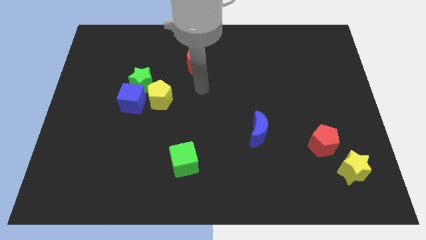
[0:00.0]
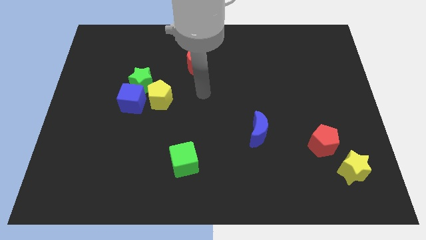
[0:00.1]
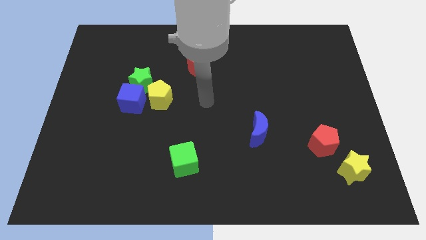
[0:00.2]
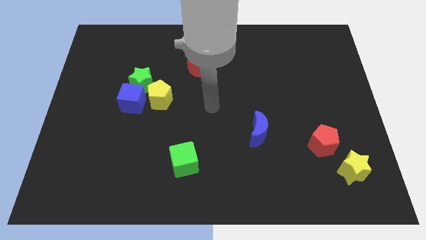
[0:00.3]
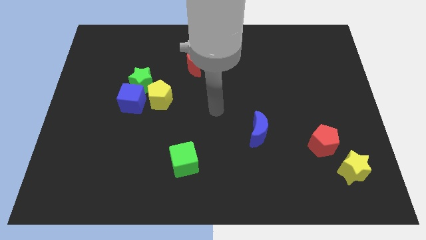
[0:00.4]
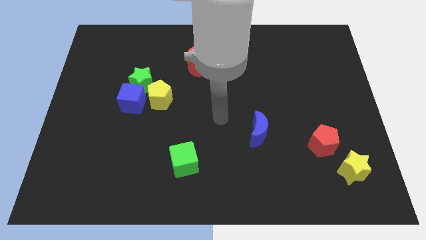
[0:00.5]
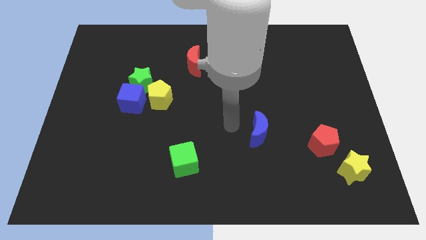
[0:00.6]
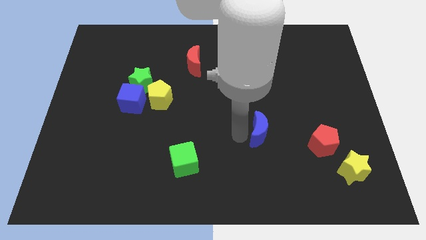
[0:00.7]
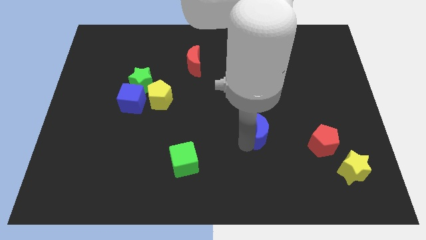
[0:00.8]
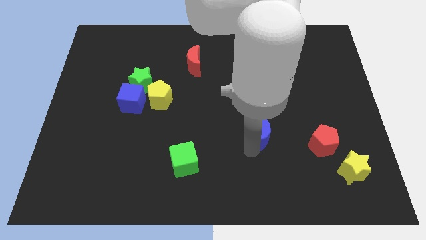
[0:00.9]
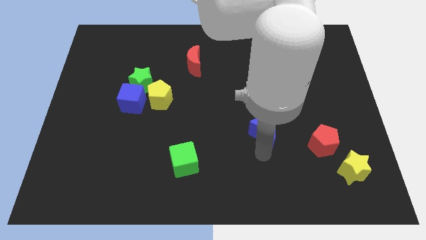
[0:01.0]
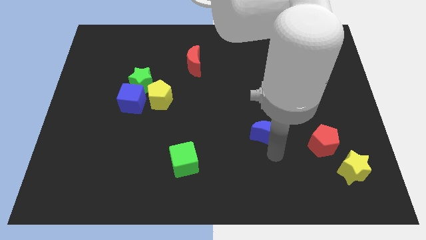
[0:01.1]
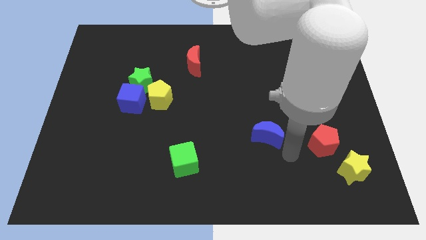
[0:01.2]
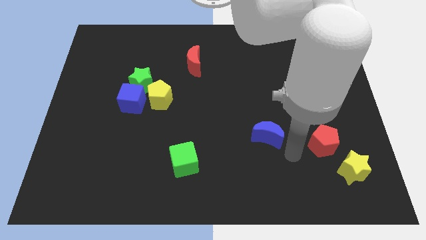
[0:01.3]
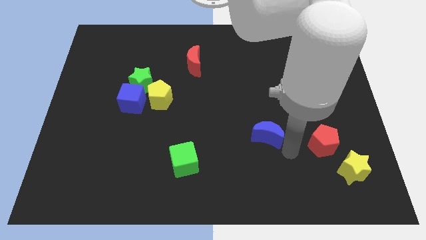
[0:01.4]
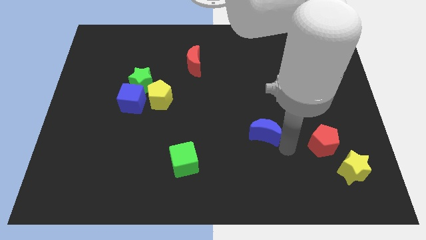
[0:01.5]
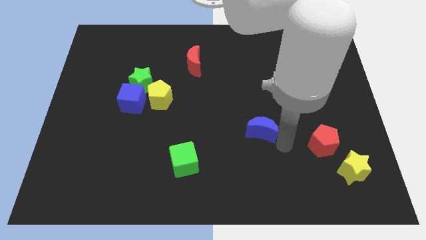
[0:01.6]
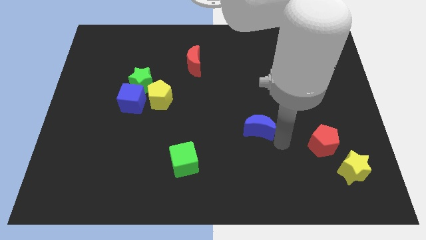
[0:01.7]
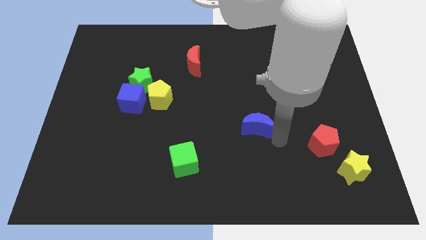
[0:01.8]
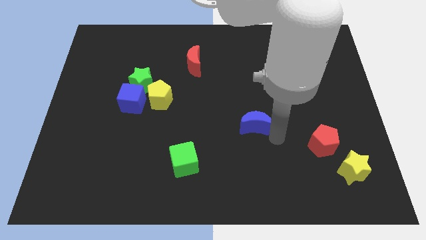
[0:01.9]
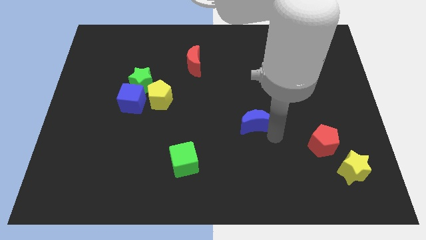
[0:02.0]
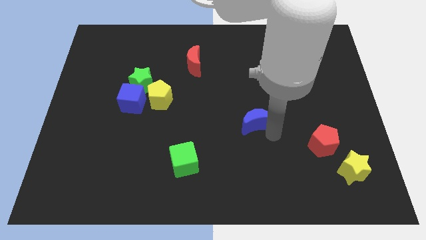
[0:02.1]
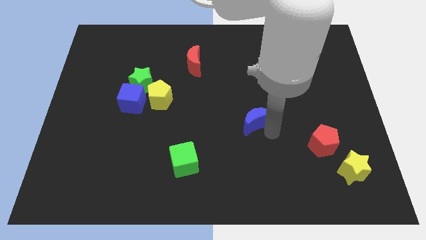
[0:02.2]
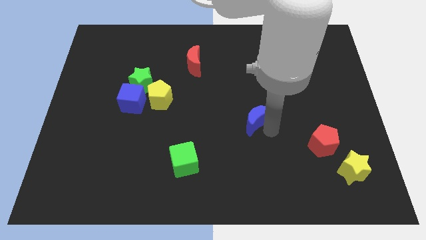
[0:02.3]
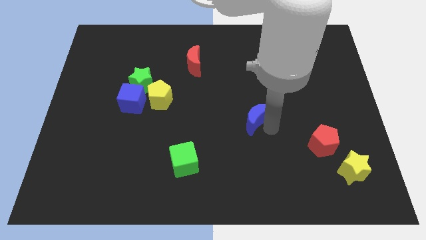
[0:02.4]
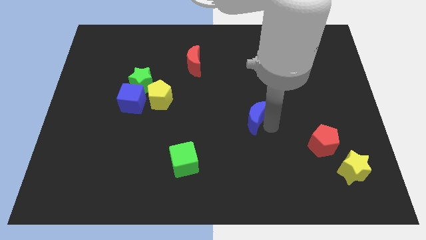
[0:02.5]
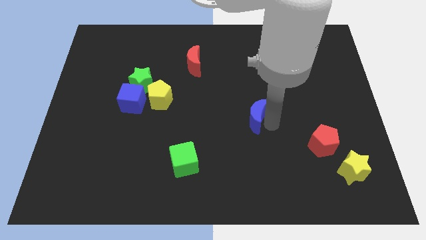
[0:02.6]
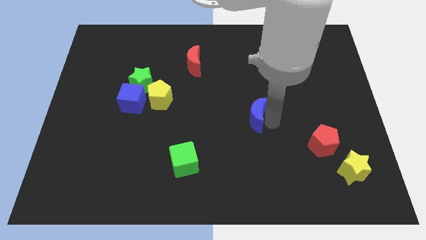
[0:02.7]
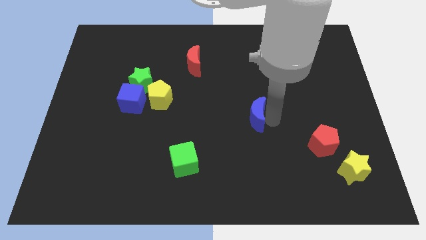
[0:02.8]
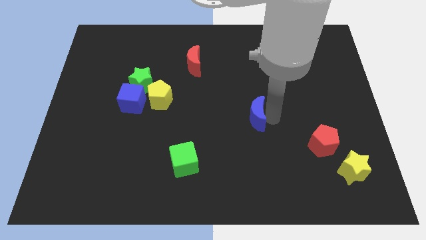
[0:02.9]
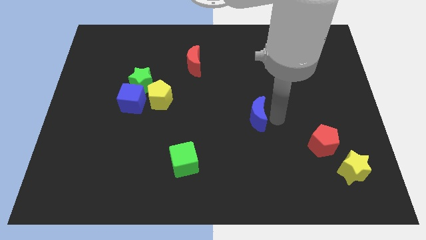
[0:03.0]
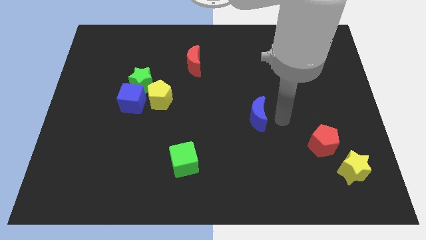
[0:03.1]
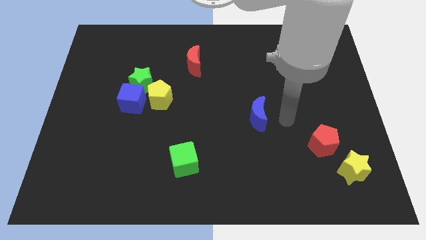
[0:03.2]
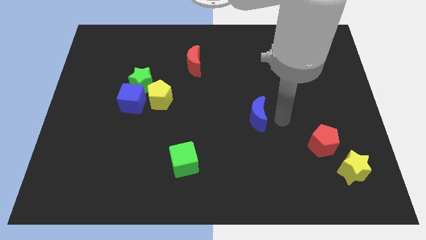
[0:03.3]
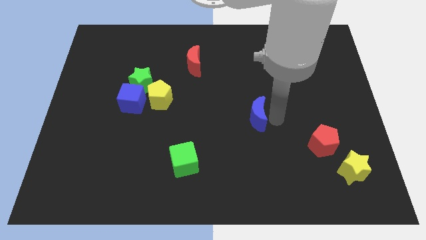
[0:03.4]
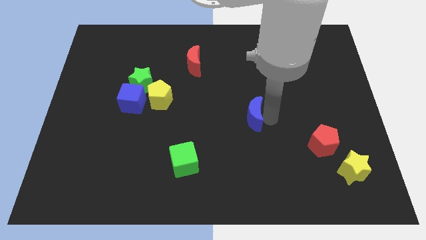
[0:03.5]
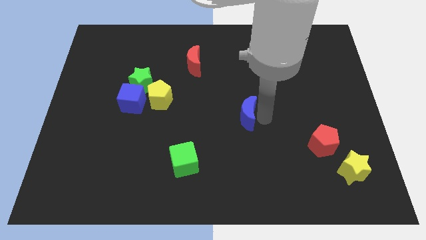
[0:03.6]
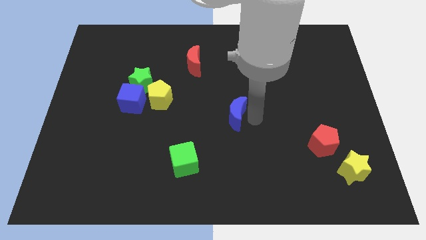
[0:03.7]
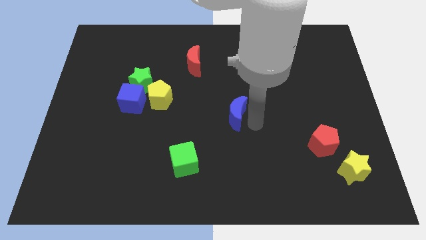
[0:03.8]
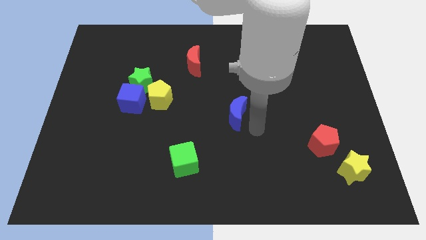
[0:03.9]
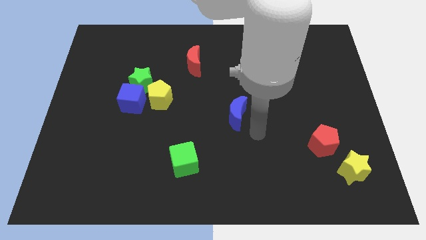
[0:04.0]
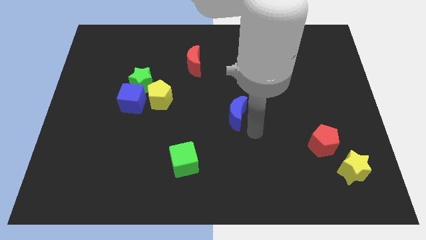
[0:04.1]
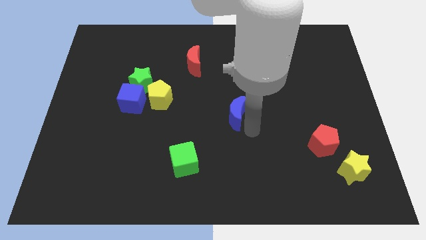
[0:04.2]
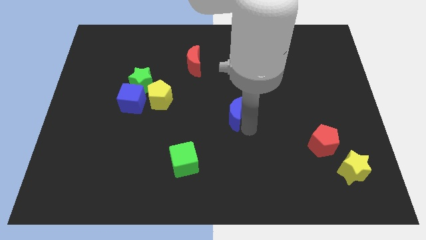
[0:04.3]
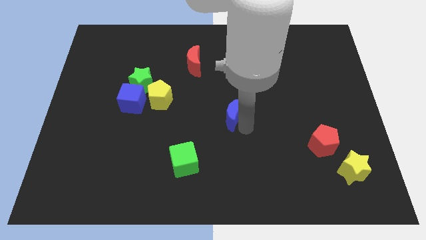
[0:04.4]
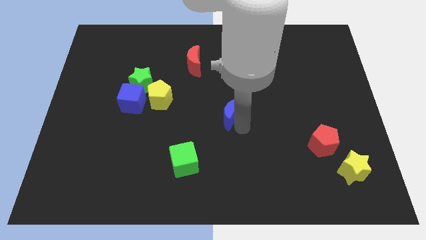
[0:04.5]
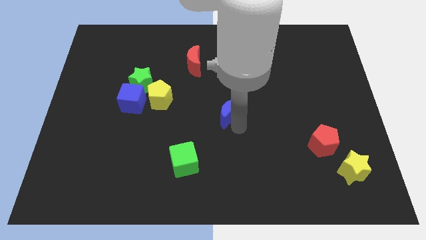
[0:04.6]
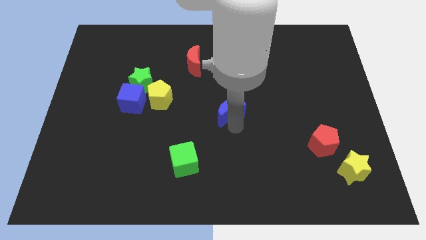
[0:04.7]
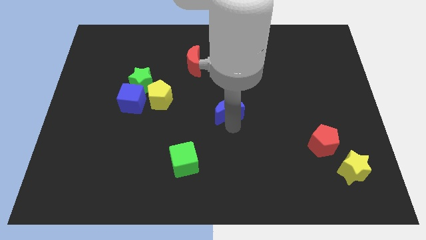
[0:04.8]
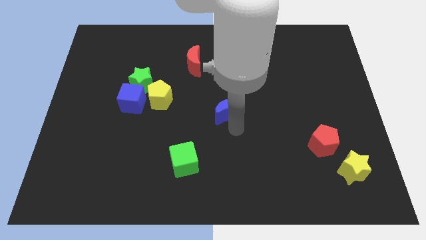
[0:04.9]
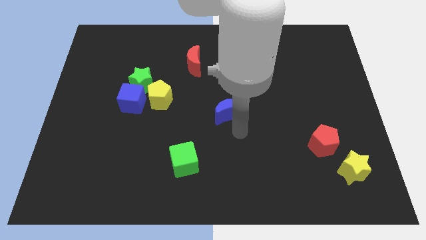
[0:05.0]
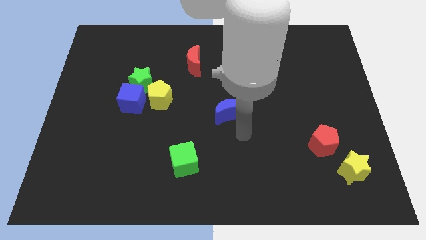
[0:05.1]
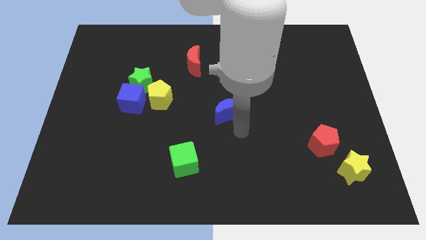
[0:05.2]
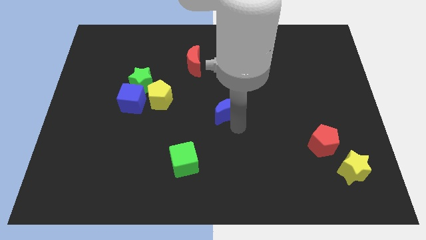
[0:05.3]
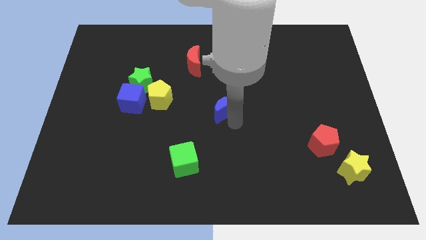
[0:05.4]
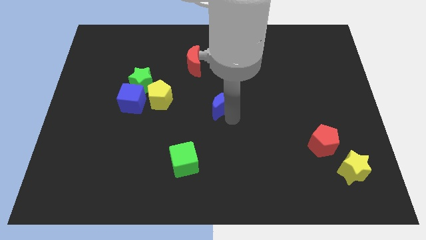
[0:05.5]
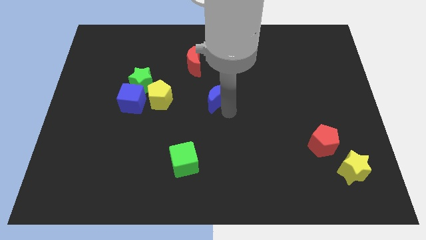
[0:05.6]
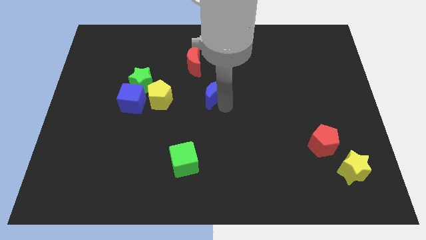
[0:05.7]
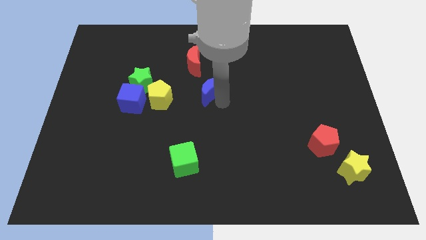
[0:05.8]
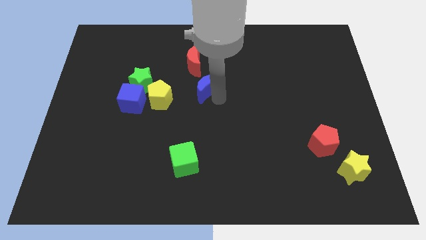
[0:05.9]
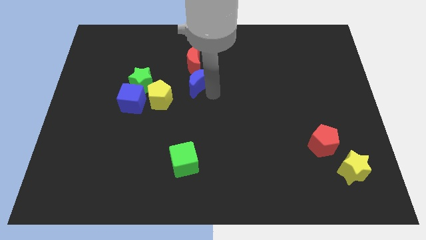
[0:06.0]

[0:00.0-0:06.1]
slide the blue moon upwards and to the left diagonally

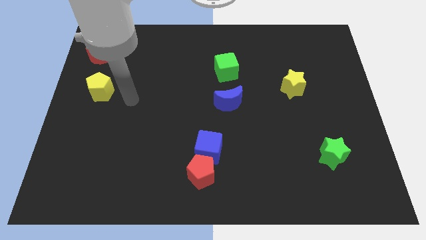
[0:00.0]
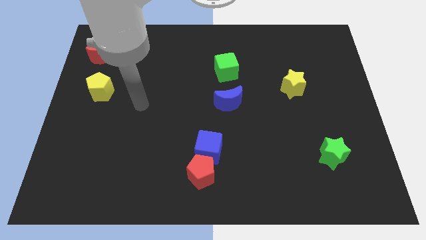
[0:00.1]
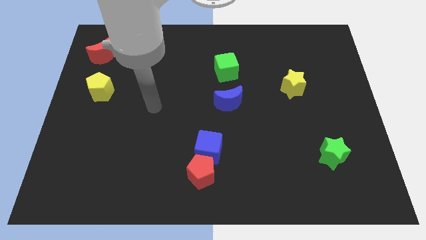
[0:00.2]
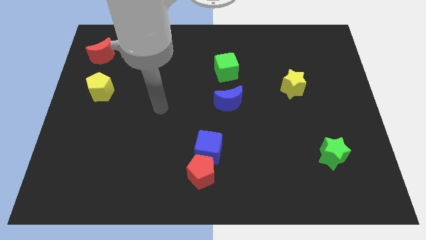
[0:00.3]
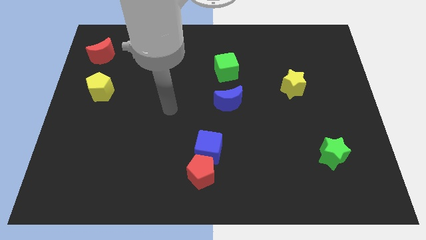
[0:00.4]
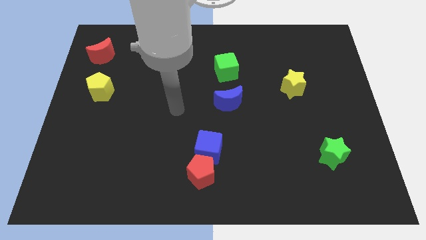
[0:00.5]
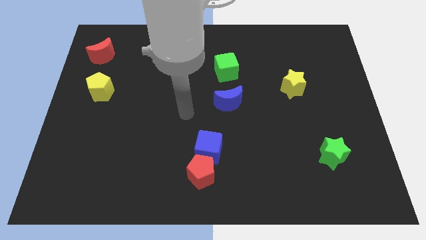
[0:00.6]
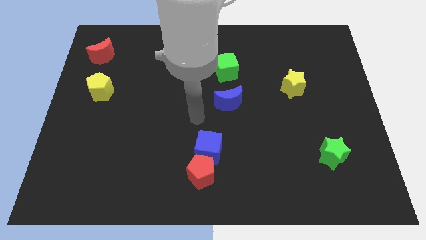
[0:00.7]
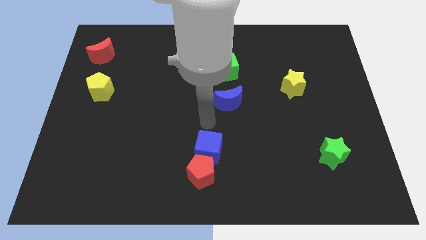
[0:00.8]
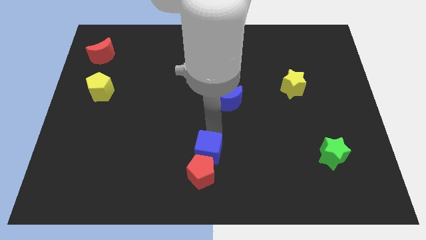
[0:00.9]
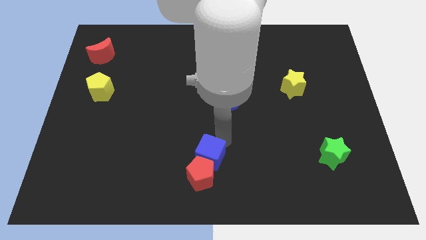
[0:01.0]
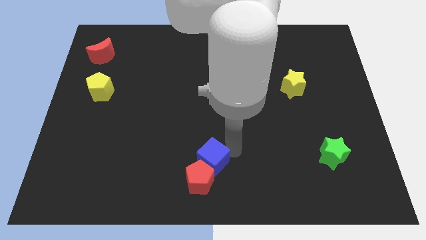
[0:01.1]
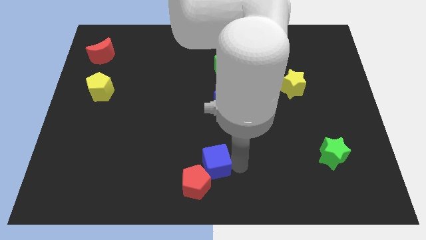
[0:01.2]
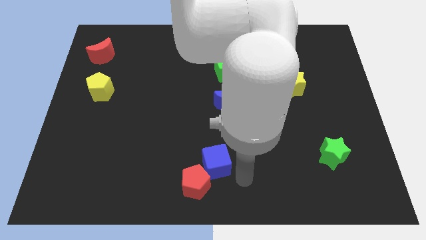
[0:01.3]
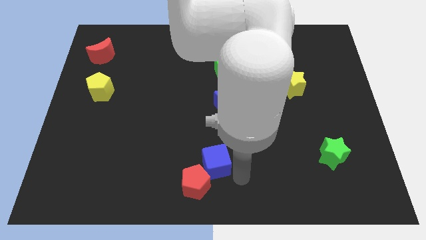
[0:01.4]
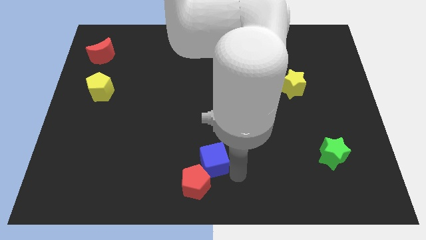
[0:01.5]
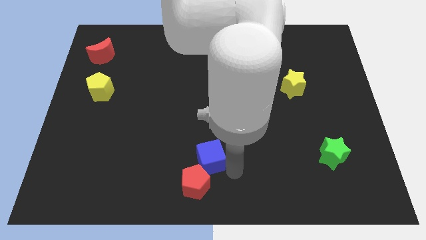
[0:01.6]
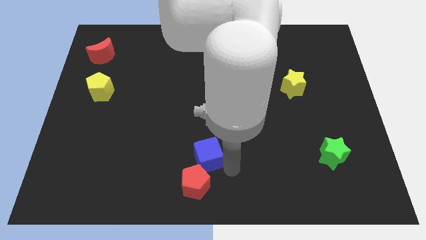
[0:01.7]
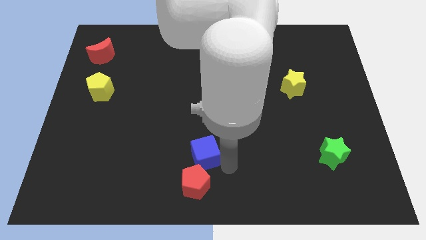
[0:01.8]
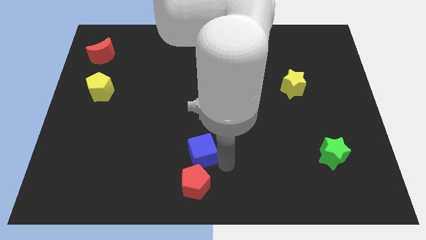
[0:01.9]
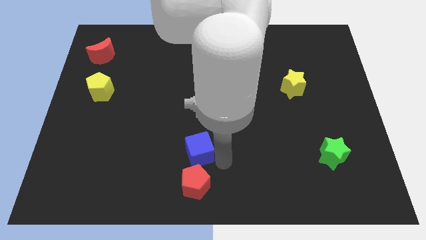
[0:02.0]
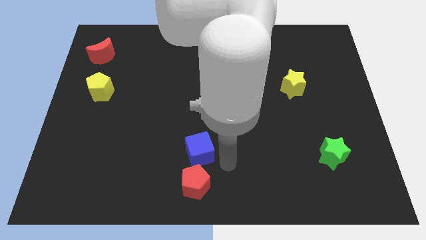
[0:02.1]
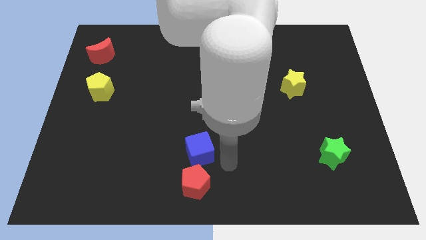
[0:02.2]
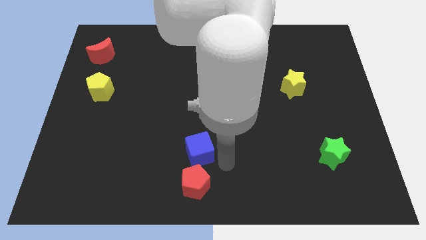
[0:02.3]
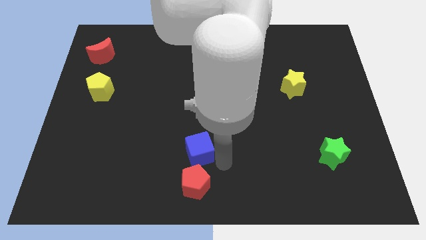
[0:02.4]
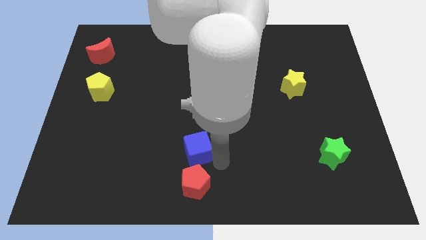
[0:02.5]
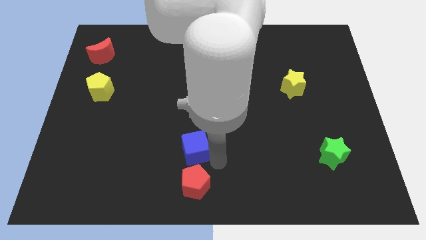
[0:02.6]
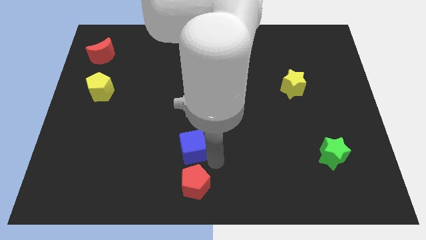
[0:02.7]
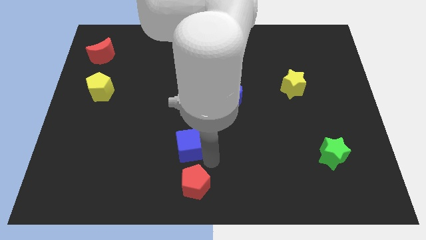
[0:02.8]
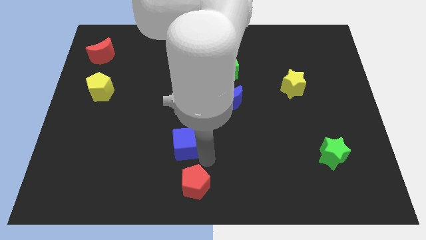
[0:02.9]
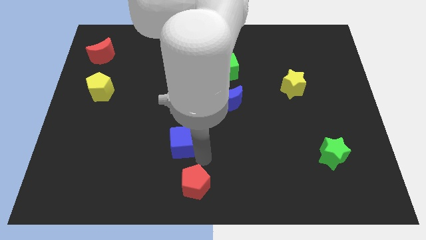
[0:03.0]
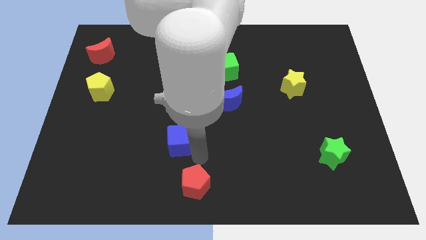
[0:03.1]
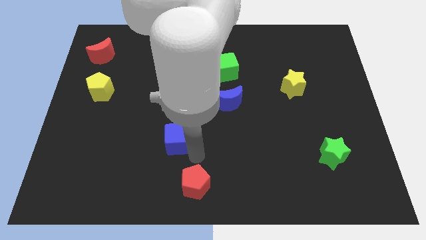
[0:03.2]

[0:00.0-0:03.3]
move the blue cube somewhat left
